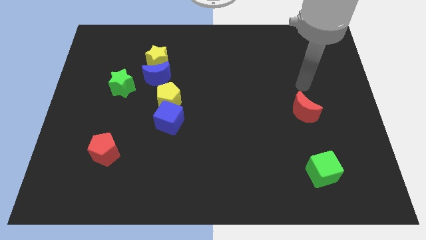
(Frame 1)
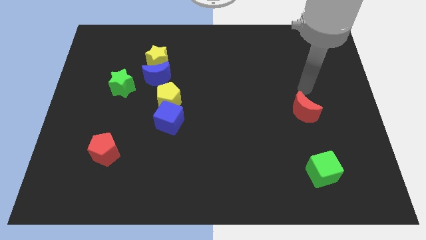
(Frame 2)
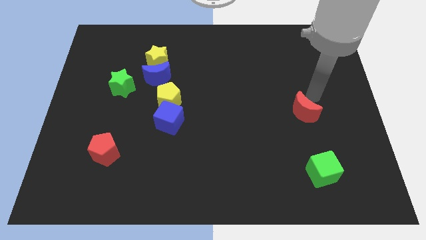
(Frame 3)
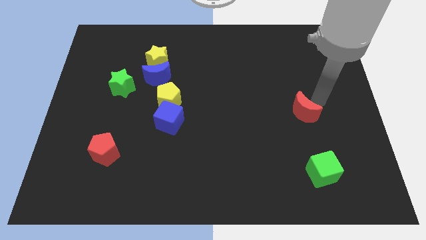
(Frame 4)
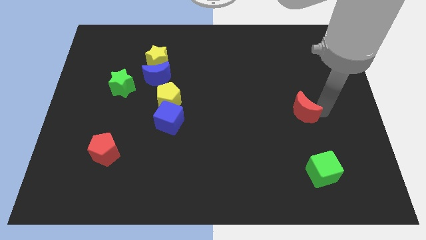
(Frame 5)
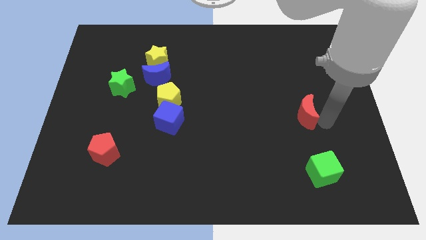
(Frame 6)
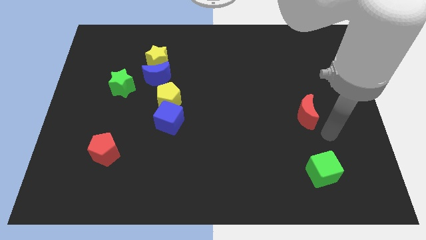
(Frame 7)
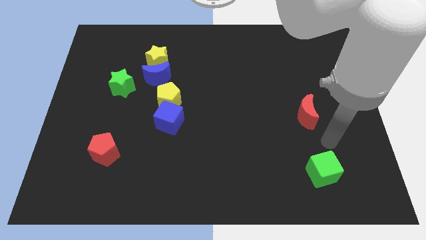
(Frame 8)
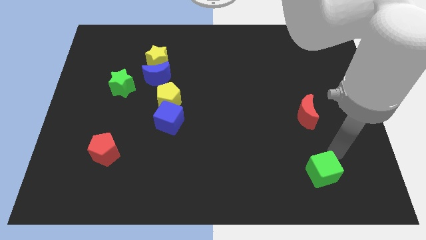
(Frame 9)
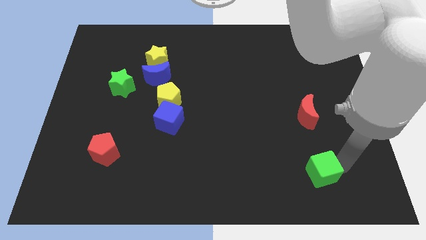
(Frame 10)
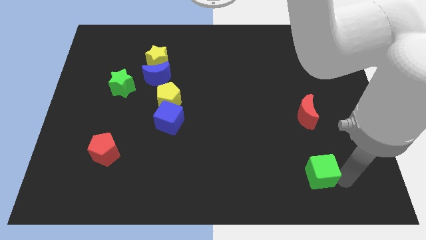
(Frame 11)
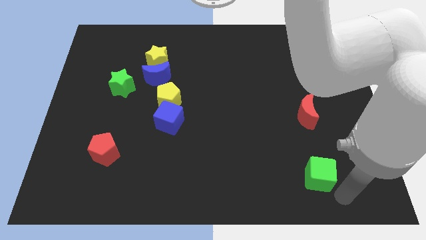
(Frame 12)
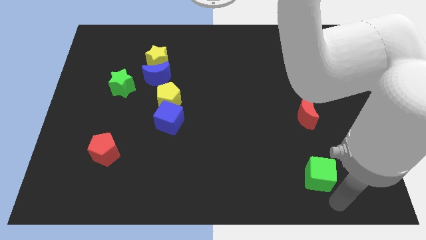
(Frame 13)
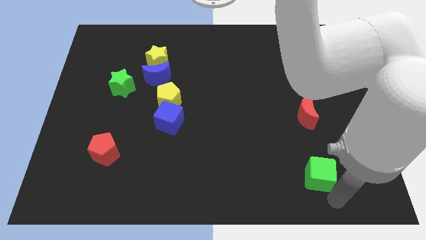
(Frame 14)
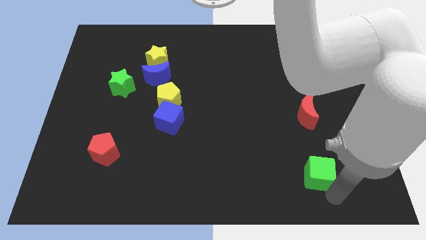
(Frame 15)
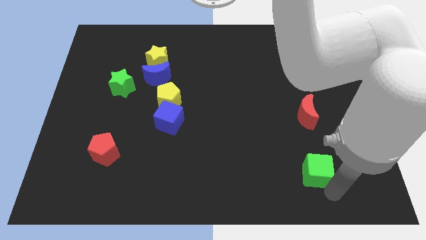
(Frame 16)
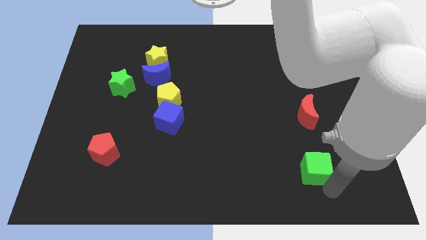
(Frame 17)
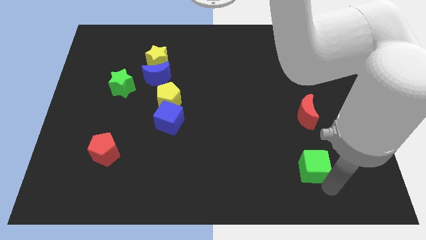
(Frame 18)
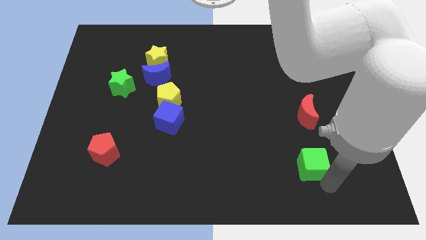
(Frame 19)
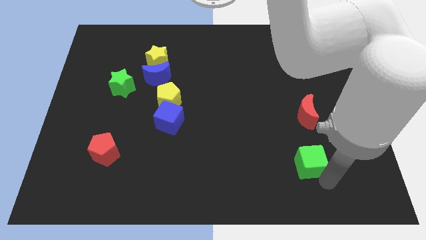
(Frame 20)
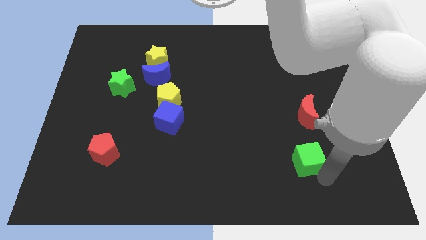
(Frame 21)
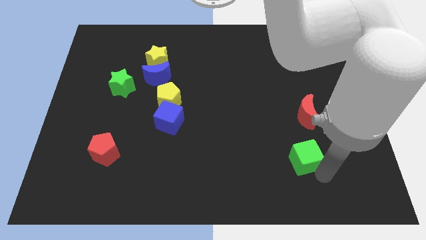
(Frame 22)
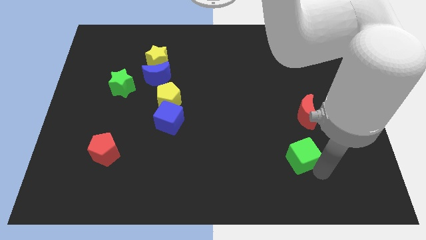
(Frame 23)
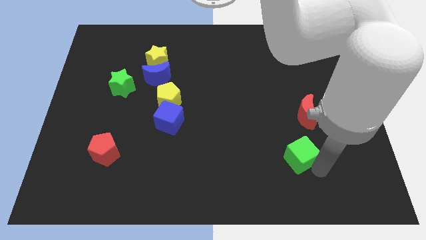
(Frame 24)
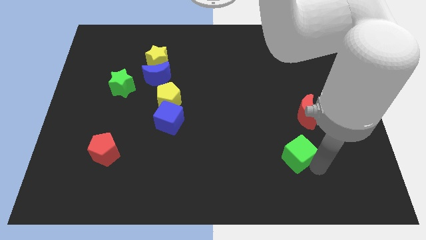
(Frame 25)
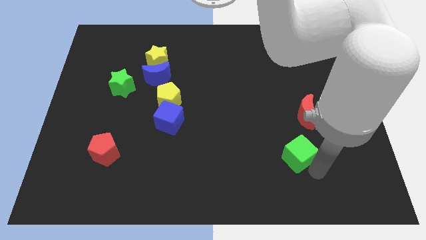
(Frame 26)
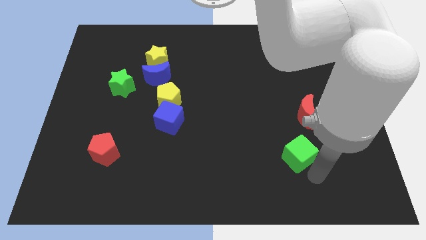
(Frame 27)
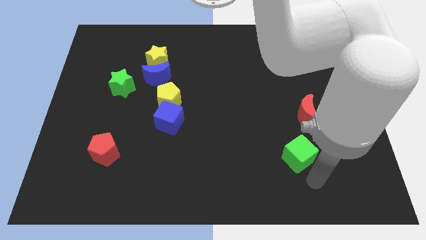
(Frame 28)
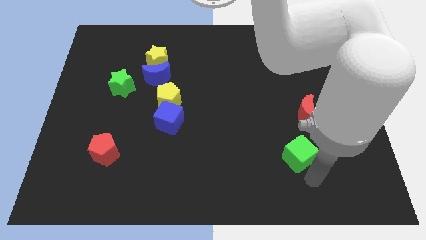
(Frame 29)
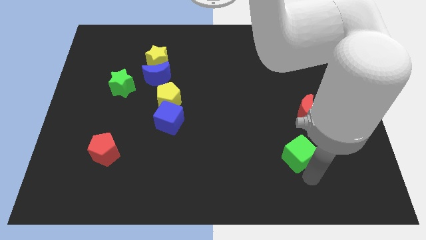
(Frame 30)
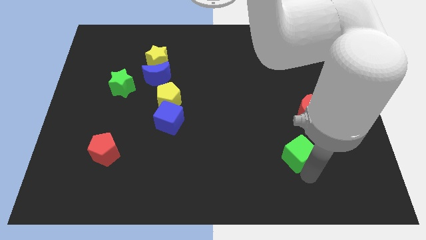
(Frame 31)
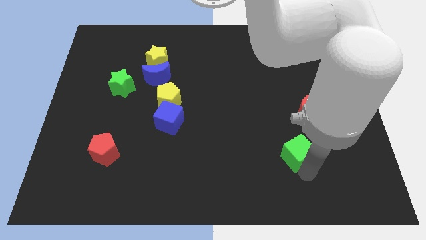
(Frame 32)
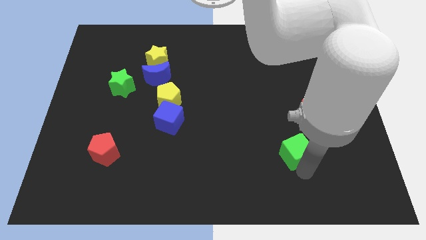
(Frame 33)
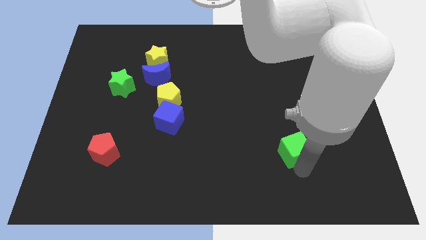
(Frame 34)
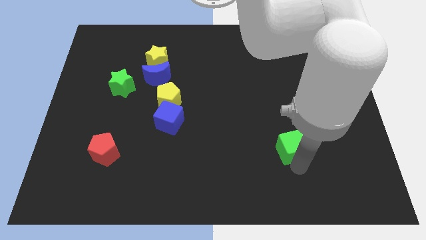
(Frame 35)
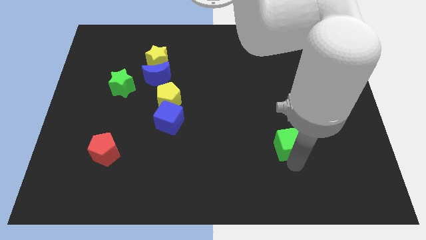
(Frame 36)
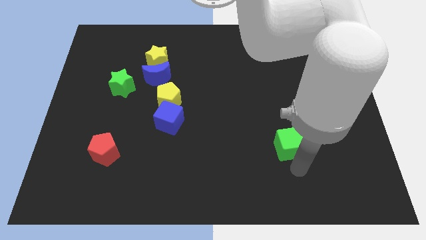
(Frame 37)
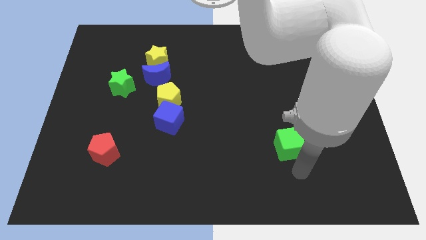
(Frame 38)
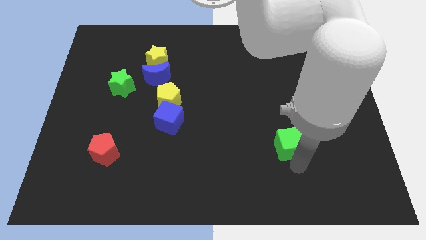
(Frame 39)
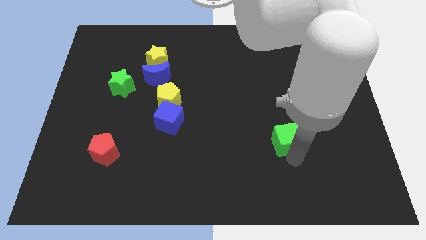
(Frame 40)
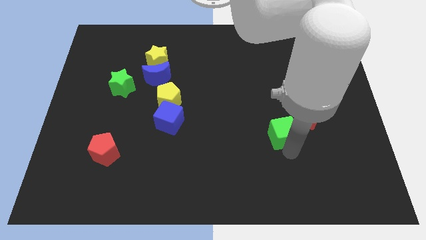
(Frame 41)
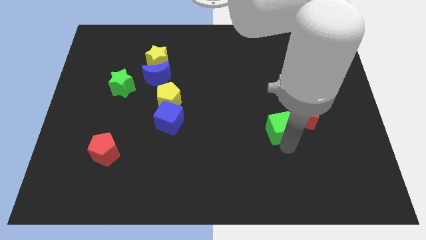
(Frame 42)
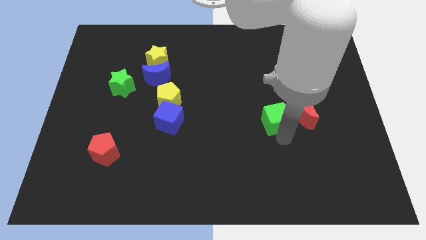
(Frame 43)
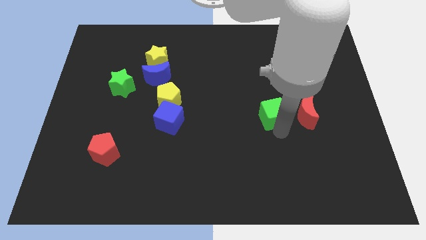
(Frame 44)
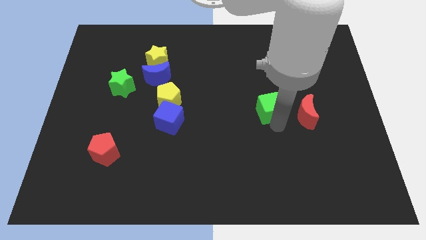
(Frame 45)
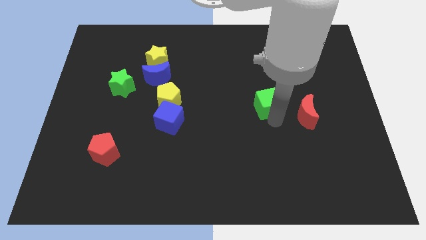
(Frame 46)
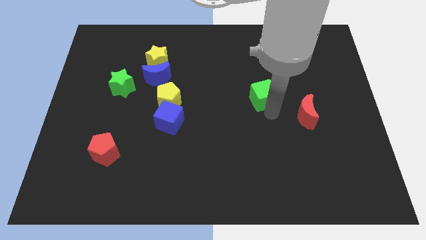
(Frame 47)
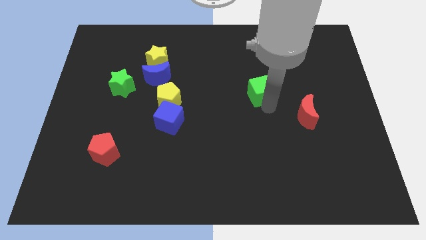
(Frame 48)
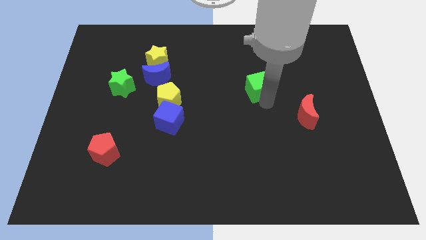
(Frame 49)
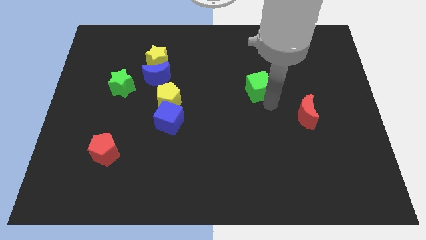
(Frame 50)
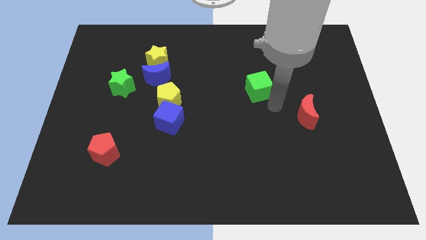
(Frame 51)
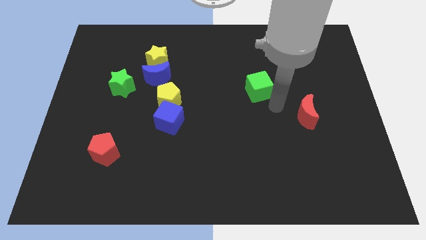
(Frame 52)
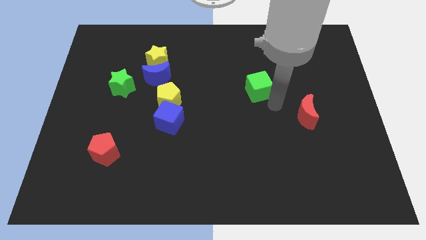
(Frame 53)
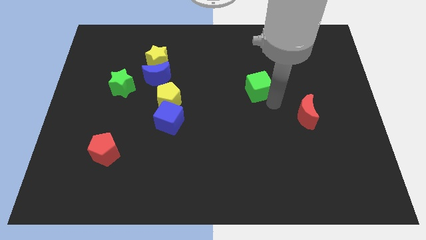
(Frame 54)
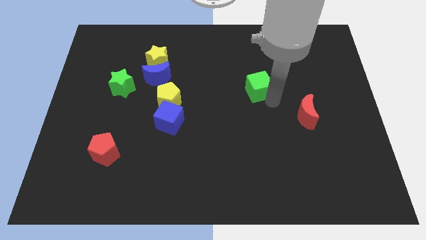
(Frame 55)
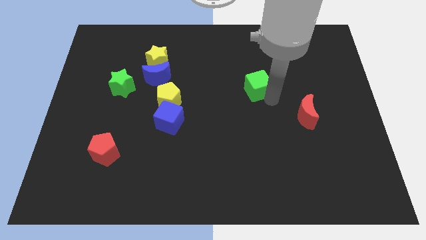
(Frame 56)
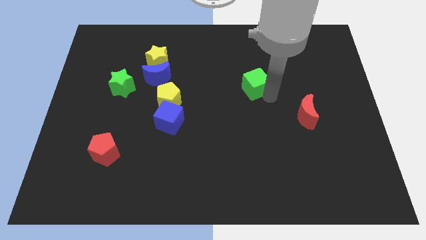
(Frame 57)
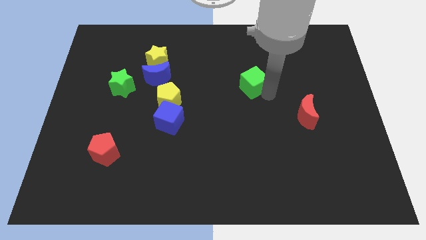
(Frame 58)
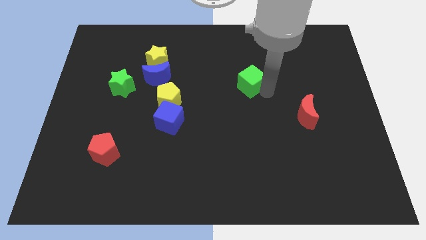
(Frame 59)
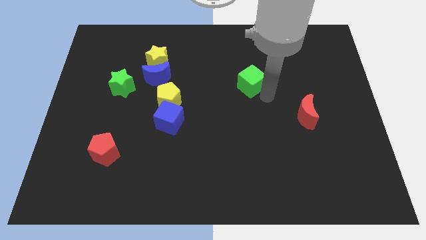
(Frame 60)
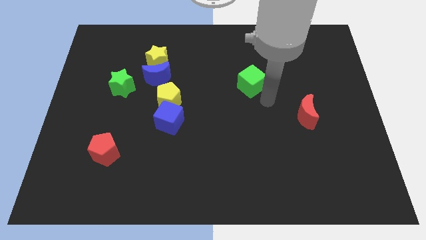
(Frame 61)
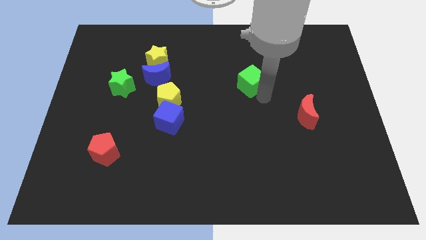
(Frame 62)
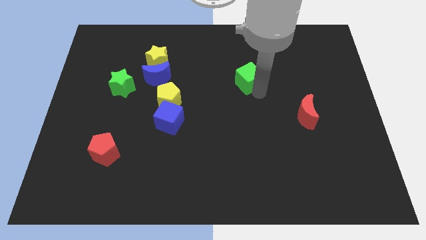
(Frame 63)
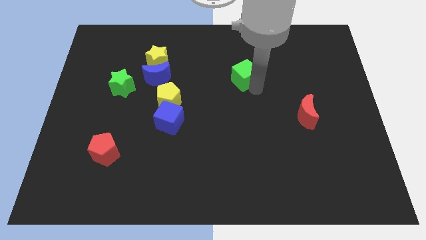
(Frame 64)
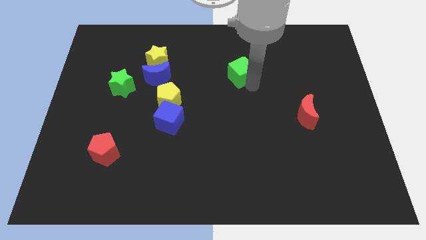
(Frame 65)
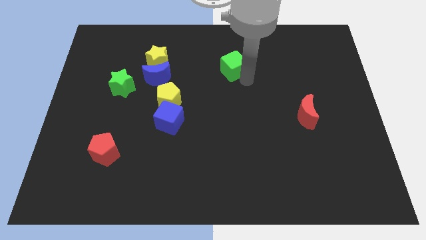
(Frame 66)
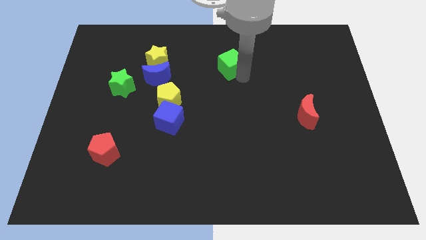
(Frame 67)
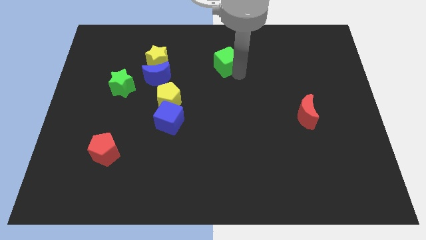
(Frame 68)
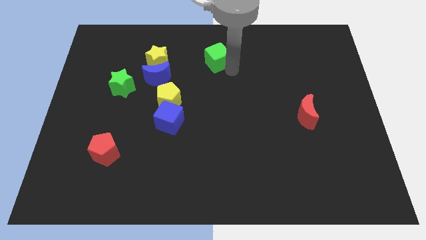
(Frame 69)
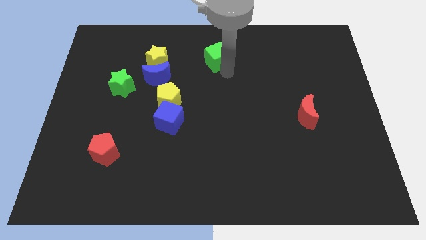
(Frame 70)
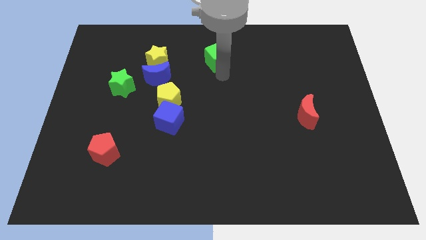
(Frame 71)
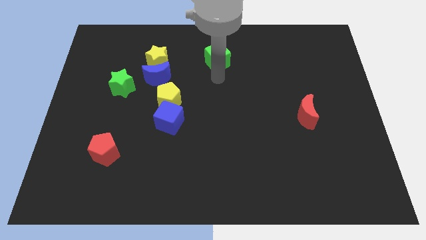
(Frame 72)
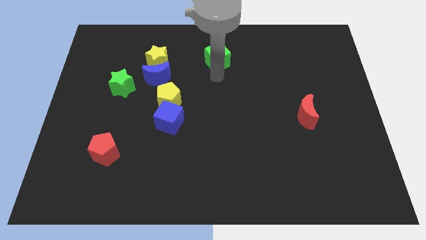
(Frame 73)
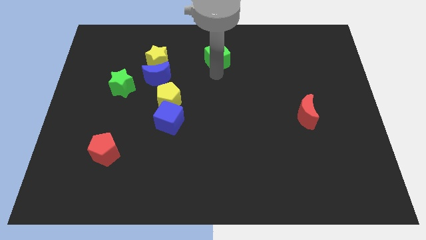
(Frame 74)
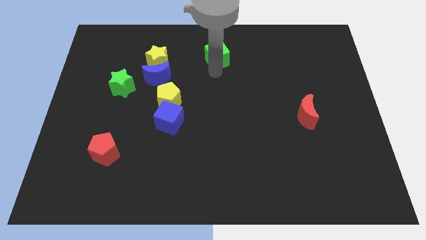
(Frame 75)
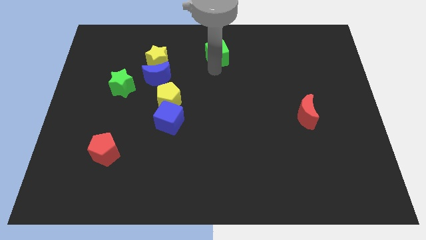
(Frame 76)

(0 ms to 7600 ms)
slide the green cube to the top
